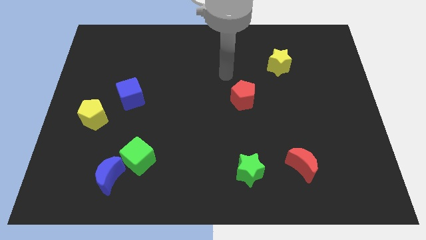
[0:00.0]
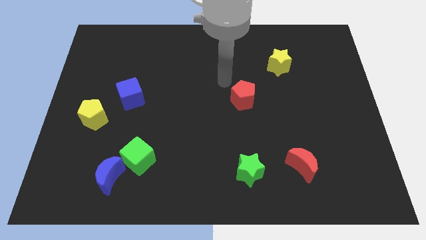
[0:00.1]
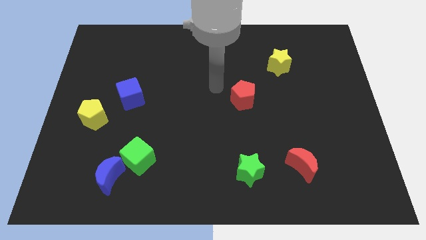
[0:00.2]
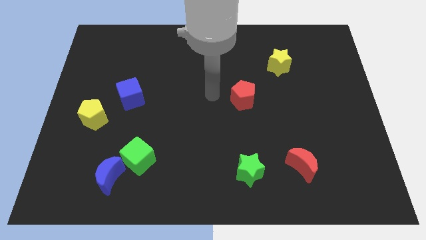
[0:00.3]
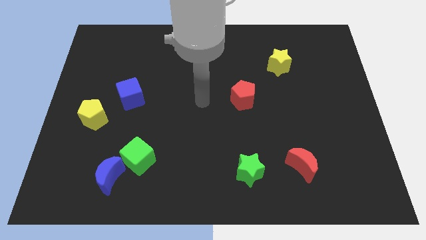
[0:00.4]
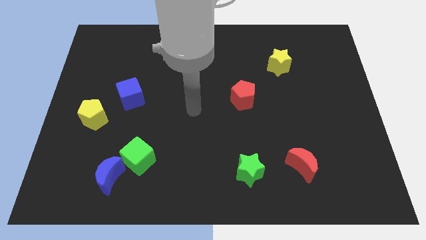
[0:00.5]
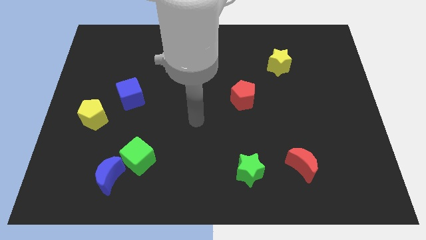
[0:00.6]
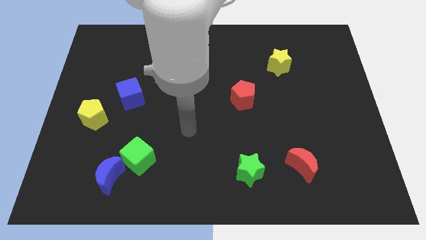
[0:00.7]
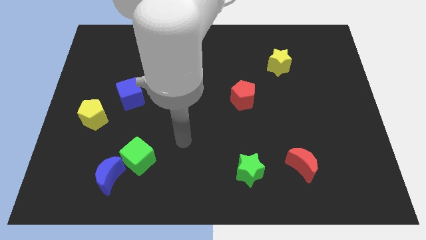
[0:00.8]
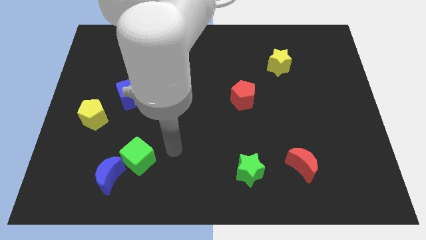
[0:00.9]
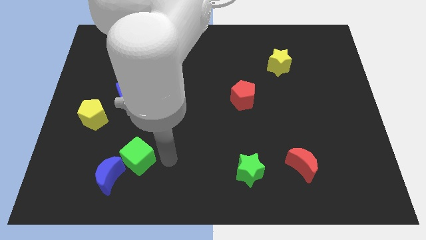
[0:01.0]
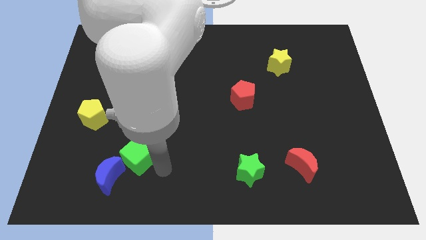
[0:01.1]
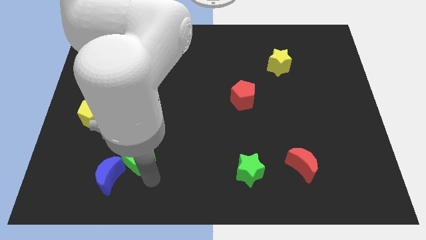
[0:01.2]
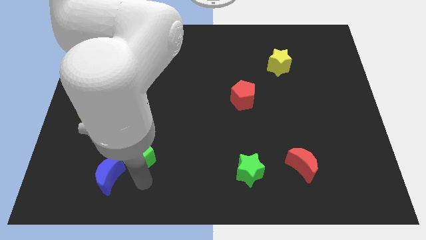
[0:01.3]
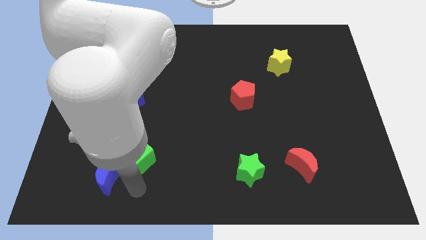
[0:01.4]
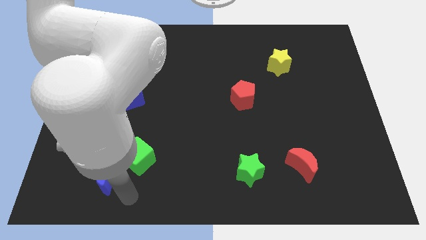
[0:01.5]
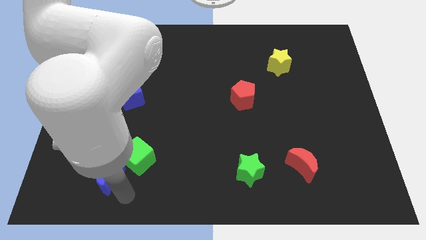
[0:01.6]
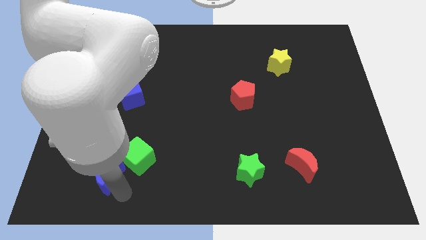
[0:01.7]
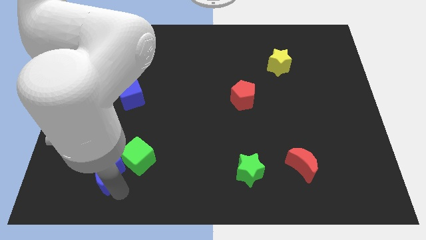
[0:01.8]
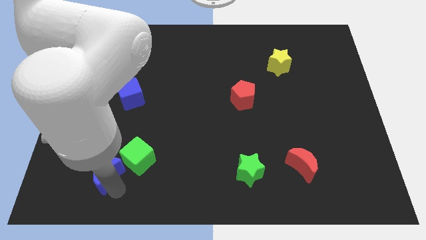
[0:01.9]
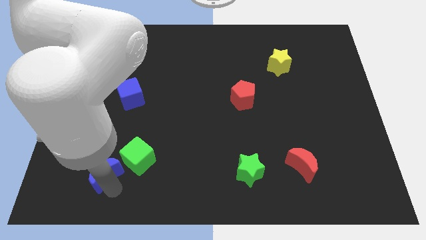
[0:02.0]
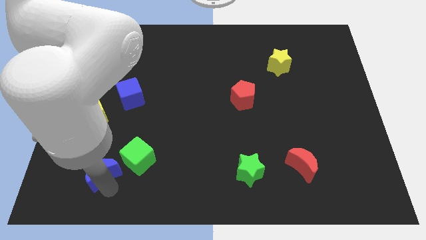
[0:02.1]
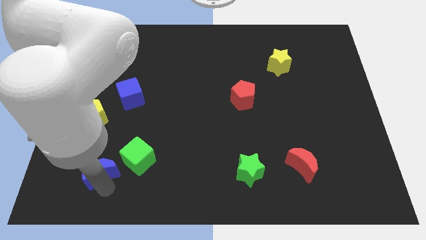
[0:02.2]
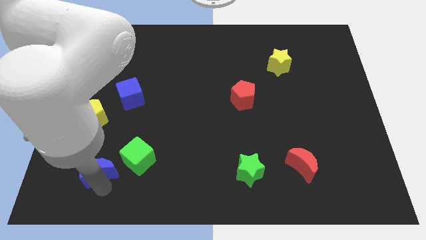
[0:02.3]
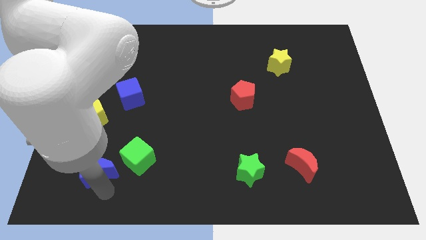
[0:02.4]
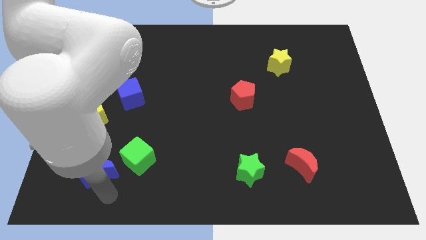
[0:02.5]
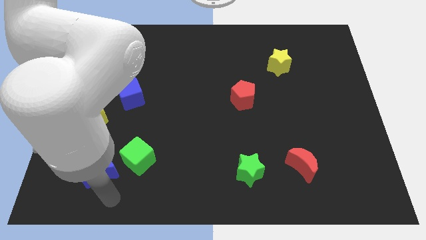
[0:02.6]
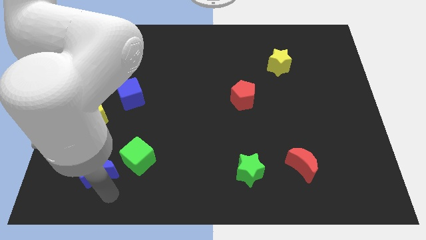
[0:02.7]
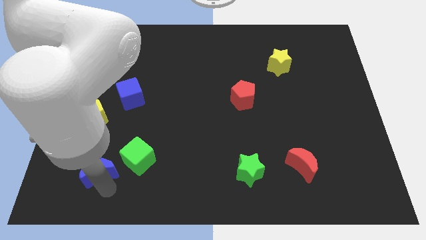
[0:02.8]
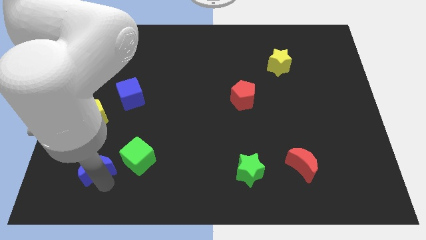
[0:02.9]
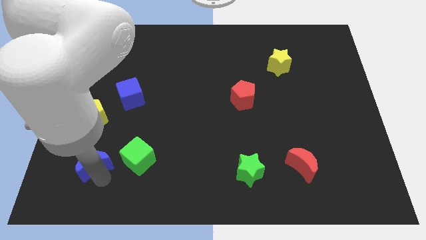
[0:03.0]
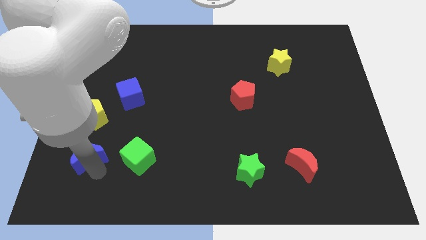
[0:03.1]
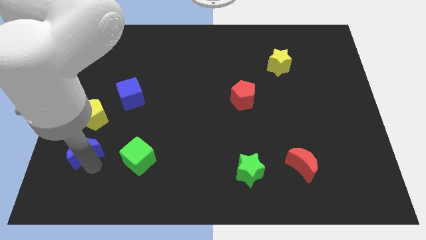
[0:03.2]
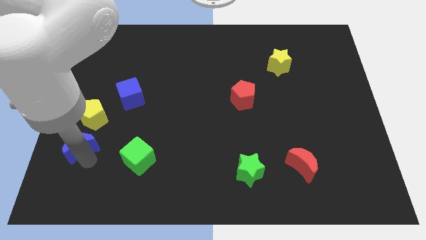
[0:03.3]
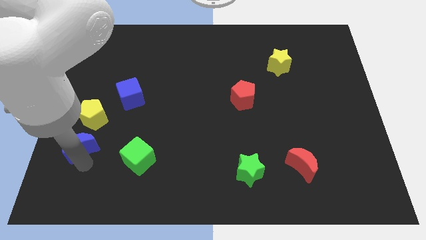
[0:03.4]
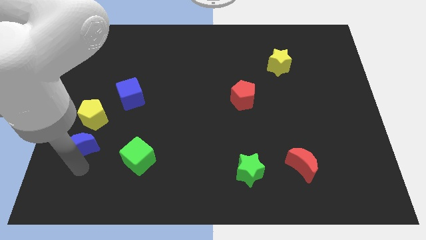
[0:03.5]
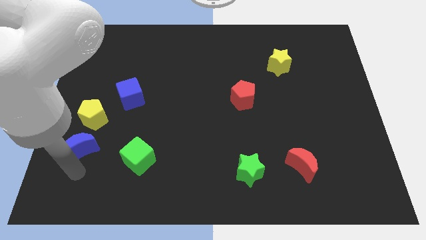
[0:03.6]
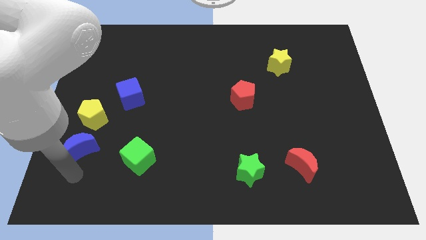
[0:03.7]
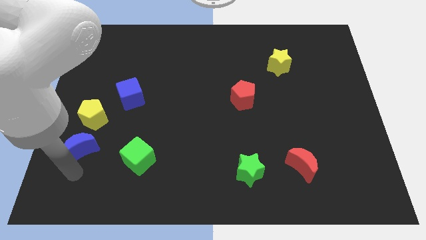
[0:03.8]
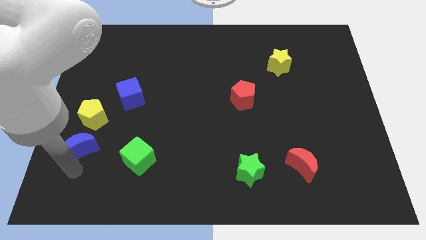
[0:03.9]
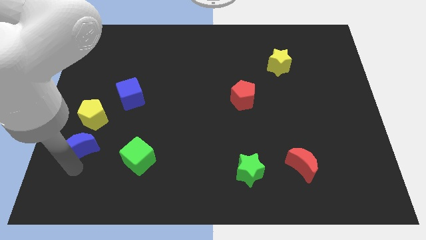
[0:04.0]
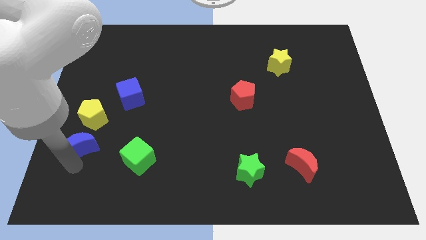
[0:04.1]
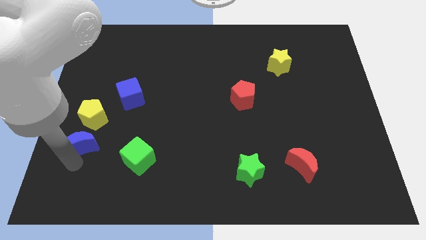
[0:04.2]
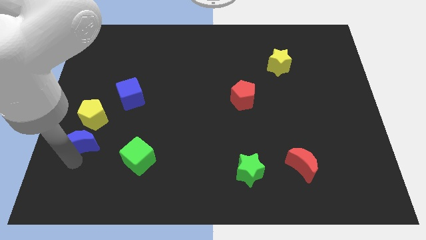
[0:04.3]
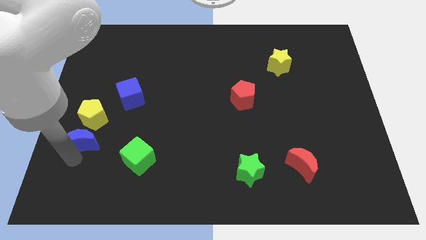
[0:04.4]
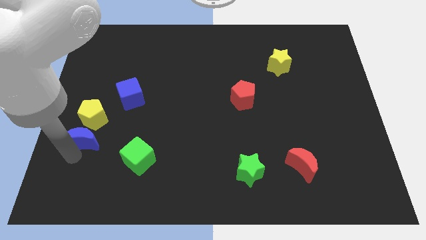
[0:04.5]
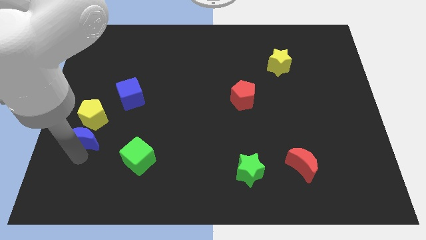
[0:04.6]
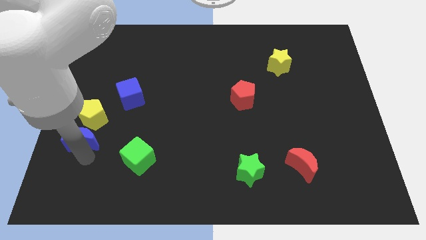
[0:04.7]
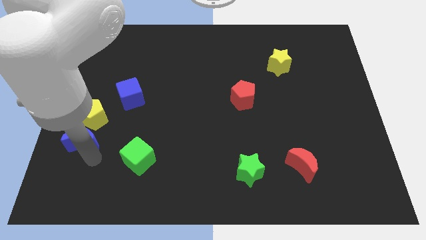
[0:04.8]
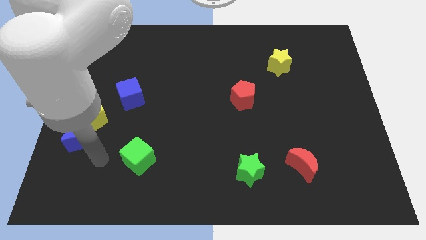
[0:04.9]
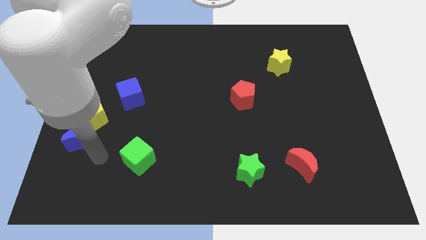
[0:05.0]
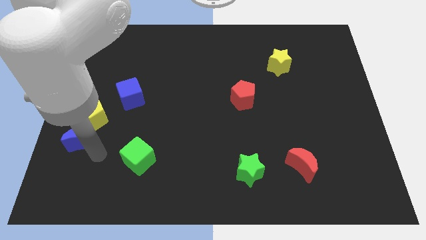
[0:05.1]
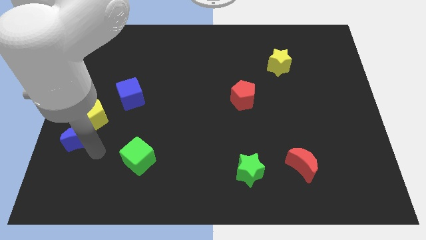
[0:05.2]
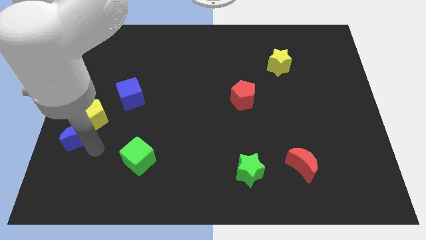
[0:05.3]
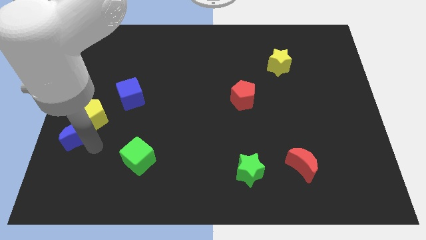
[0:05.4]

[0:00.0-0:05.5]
push the blue moon to the center left

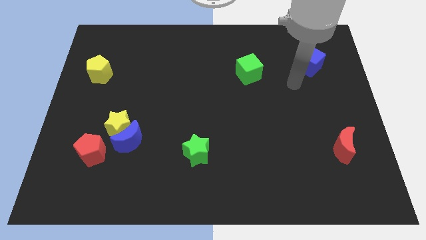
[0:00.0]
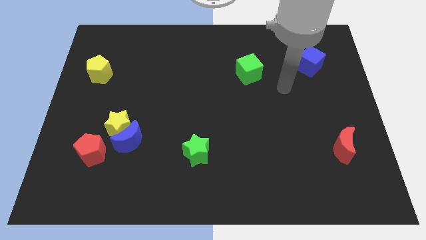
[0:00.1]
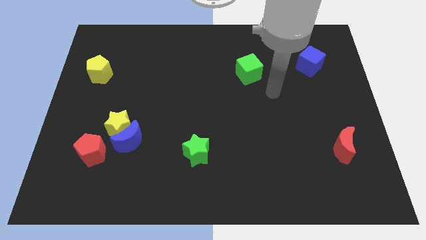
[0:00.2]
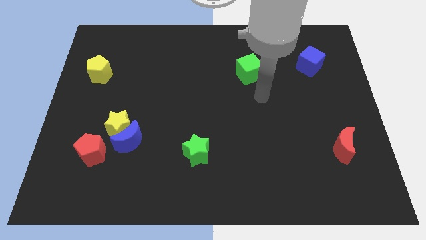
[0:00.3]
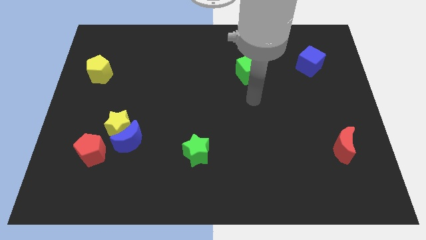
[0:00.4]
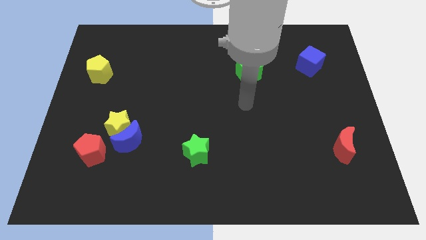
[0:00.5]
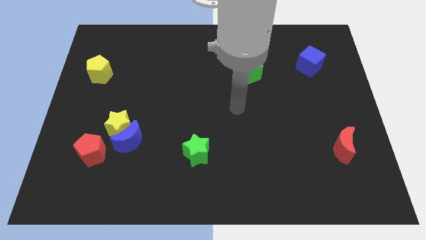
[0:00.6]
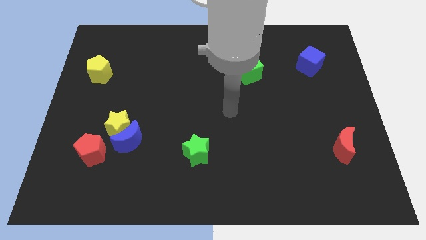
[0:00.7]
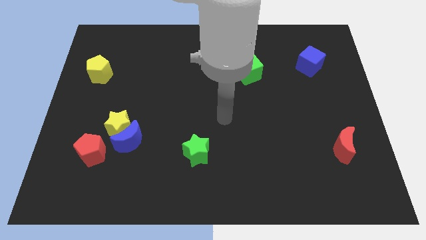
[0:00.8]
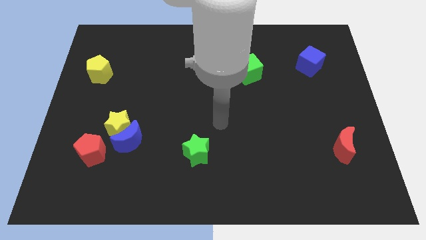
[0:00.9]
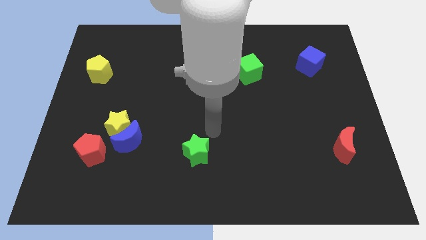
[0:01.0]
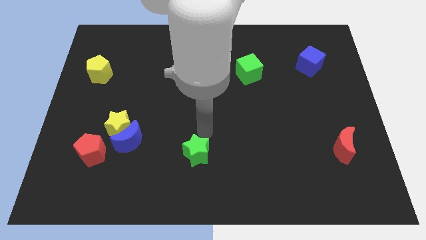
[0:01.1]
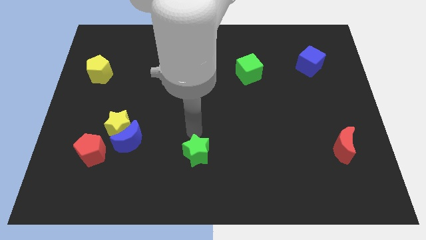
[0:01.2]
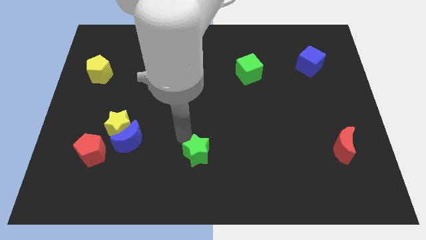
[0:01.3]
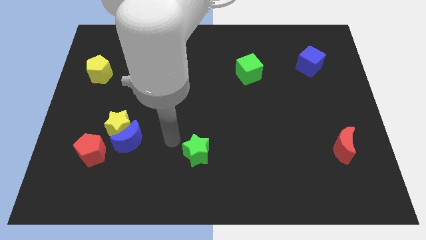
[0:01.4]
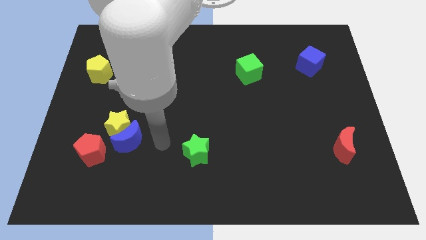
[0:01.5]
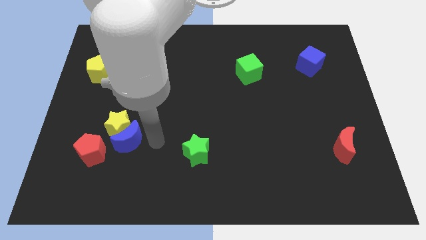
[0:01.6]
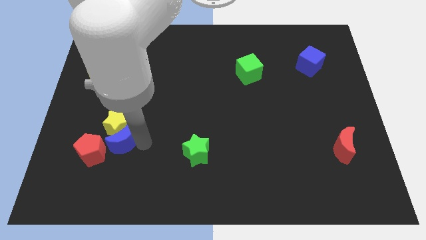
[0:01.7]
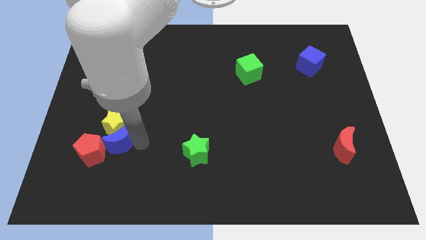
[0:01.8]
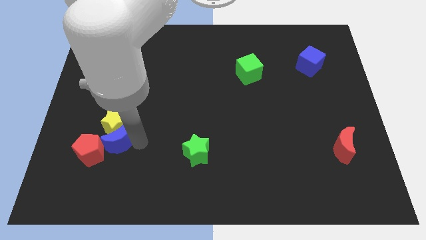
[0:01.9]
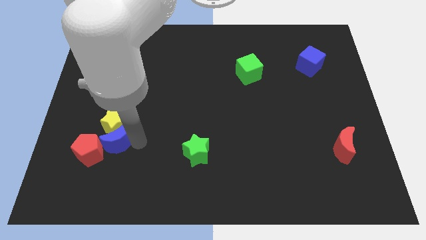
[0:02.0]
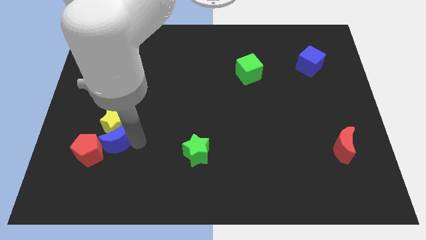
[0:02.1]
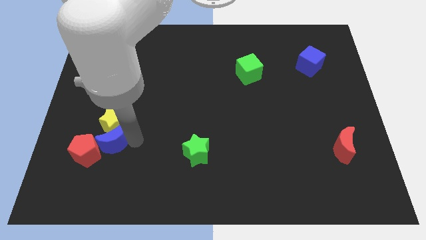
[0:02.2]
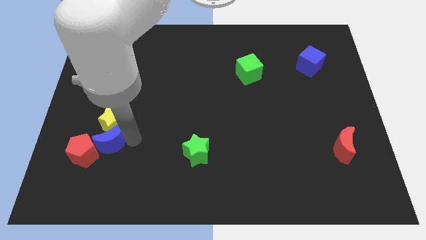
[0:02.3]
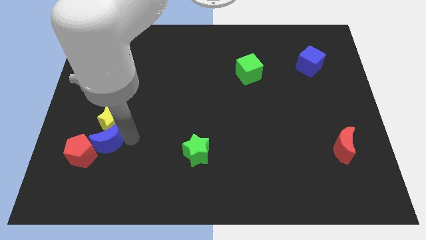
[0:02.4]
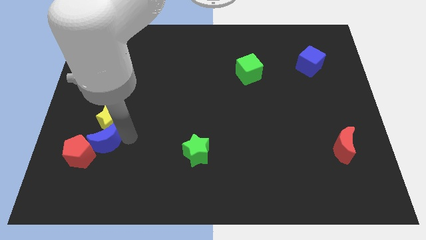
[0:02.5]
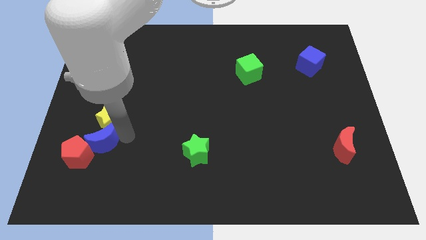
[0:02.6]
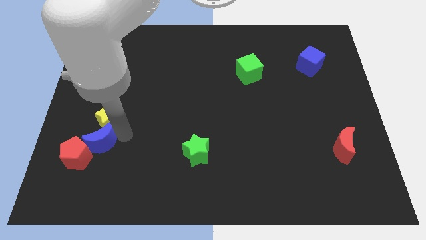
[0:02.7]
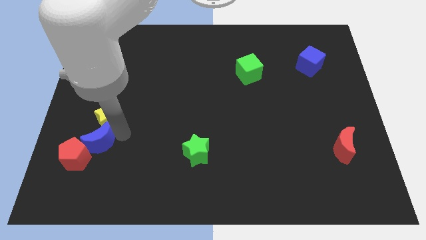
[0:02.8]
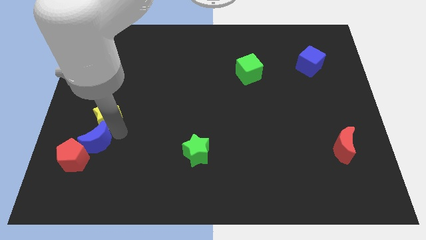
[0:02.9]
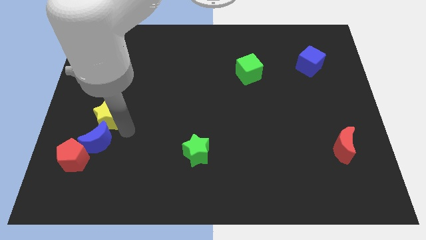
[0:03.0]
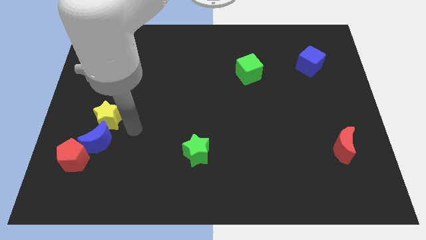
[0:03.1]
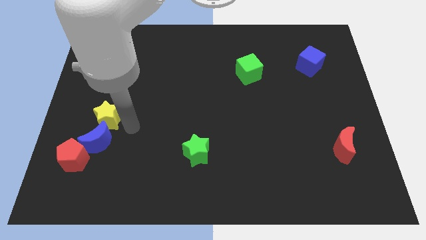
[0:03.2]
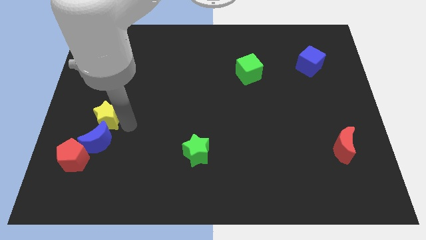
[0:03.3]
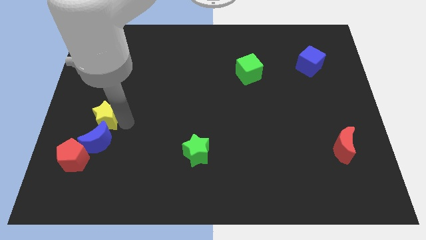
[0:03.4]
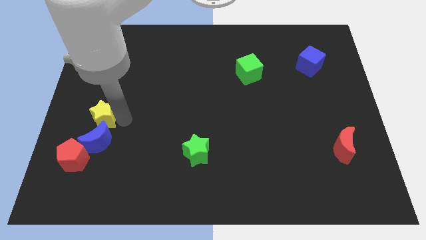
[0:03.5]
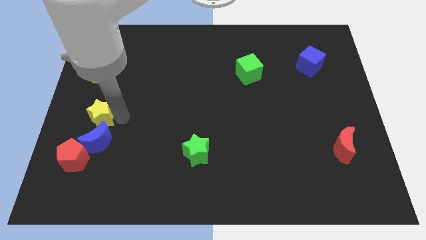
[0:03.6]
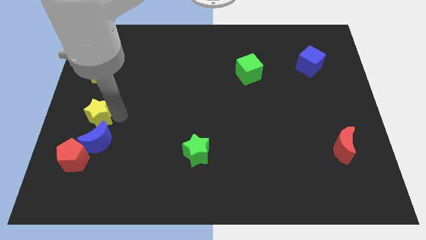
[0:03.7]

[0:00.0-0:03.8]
move the yellow star to the center left
